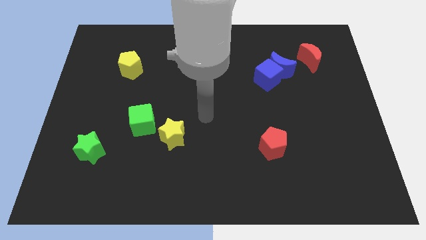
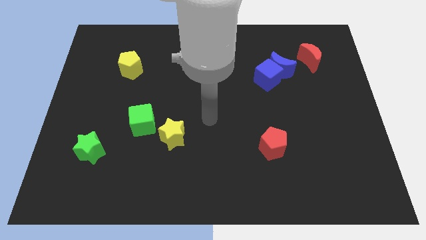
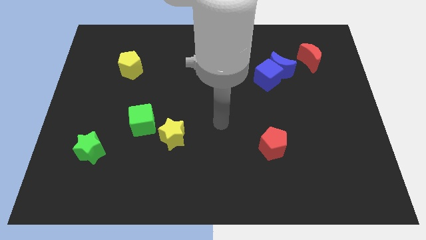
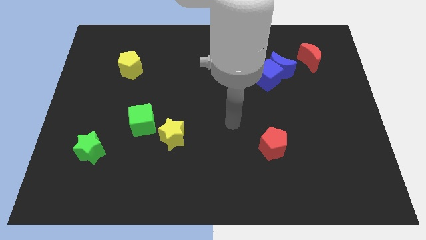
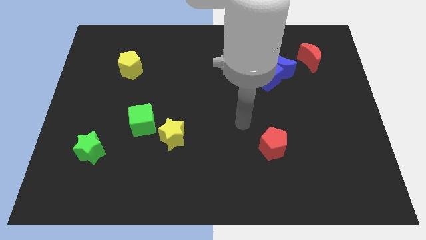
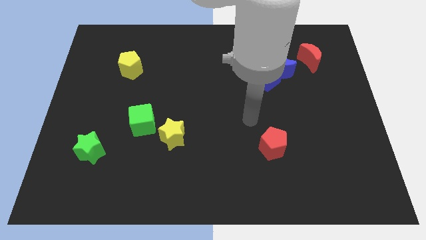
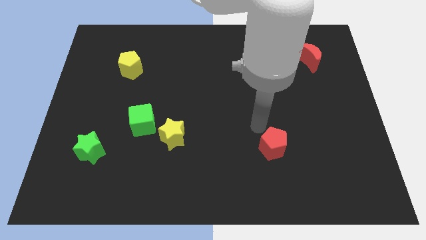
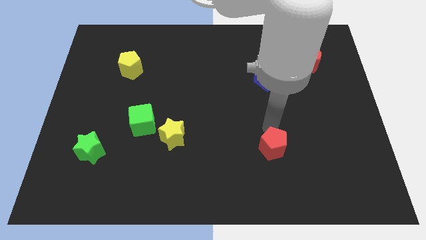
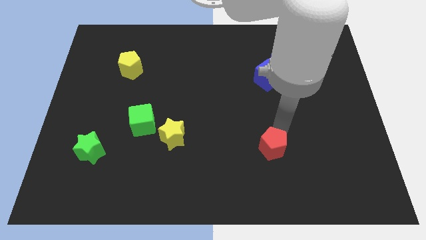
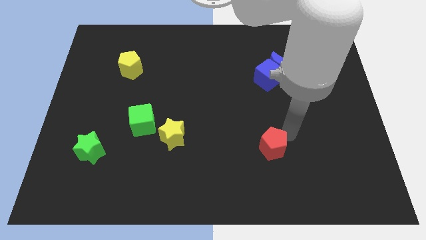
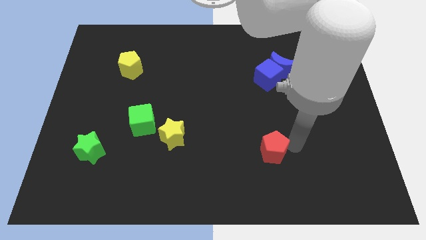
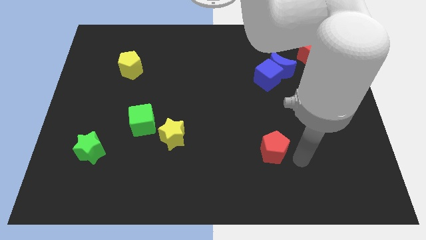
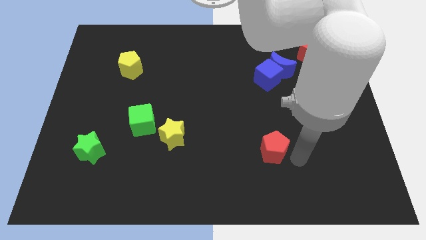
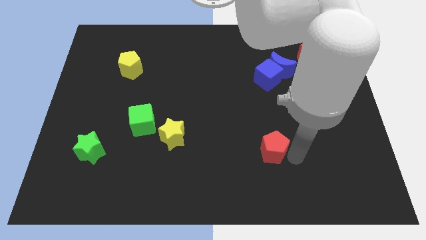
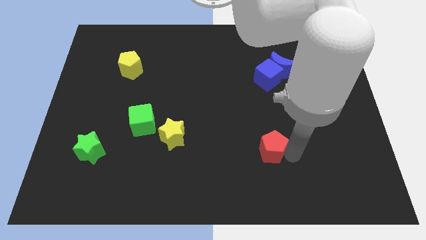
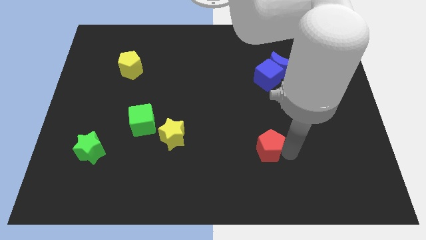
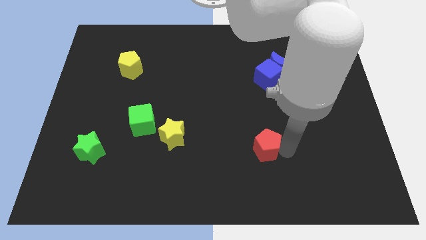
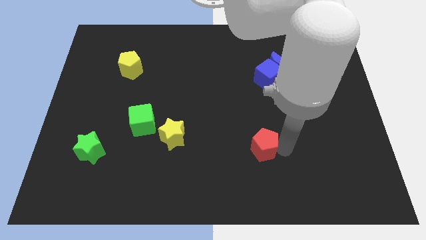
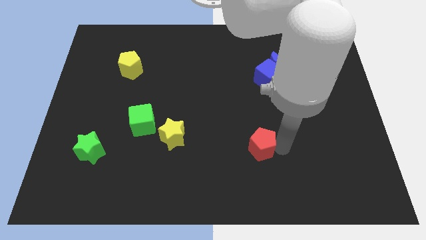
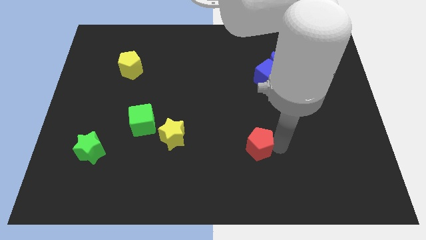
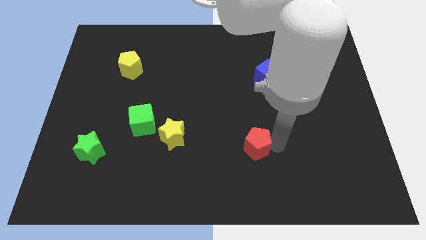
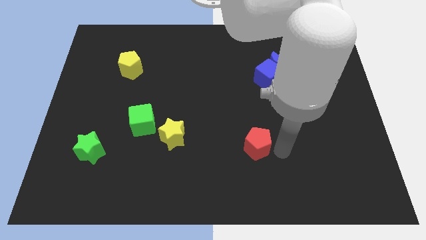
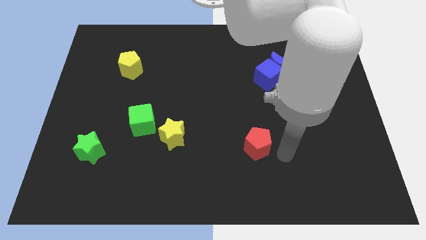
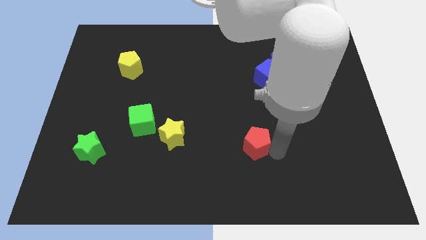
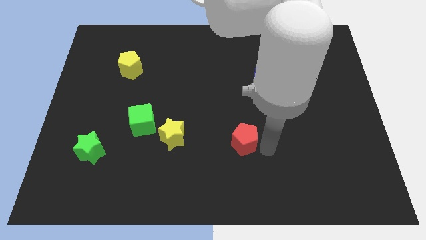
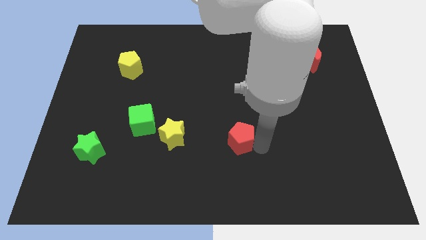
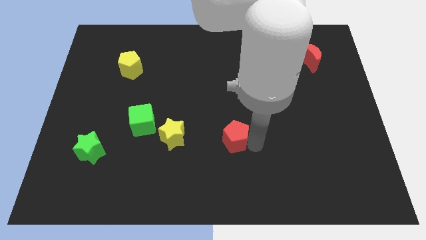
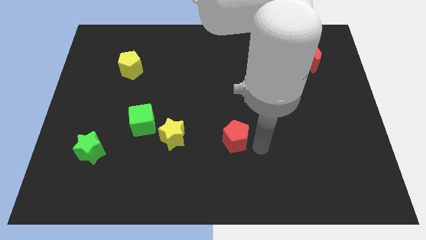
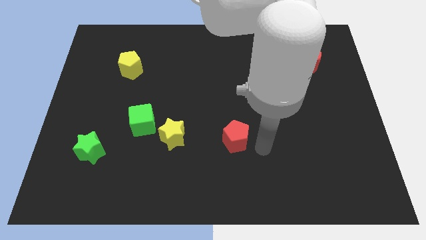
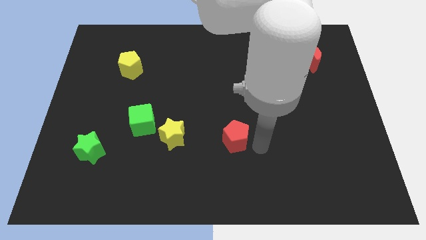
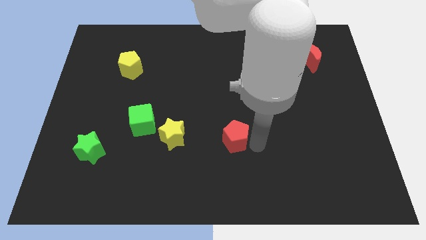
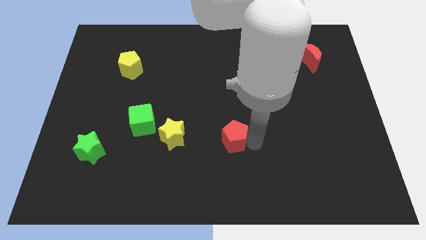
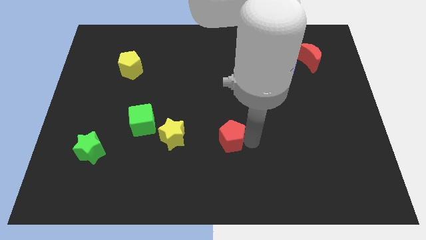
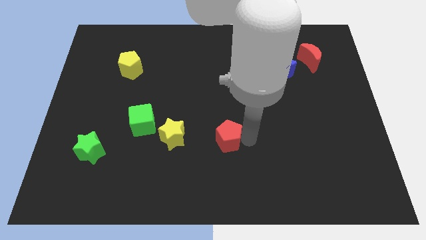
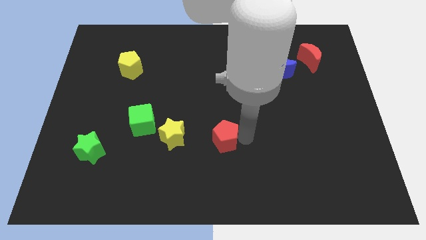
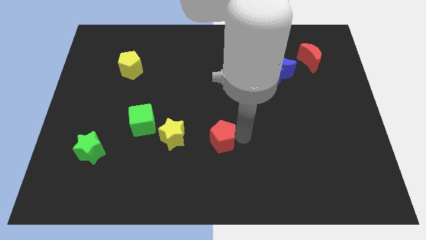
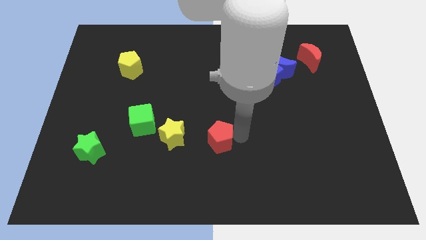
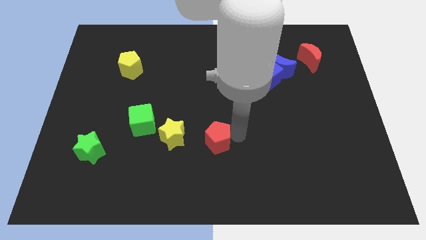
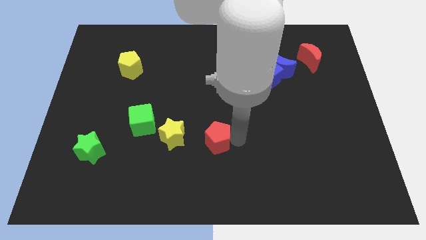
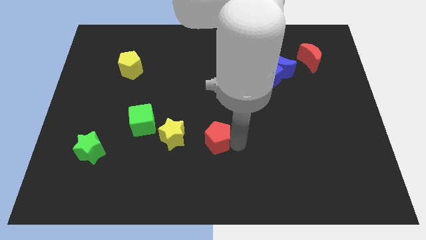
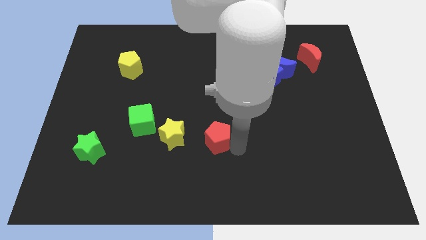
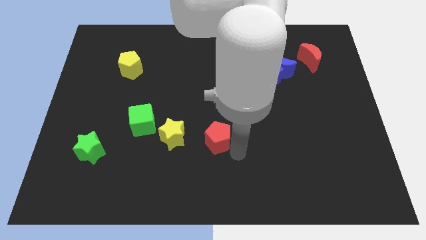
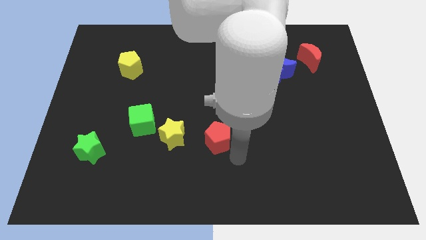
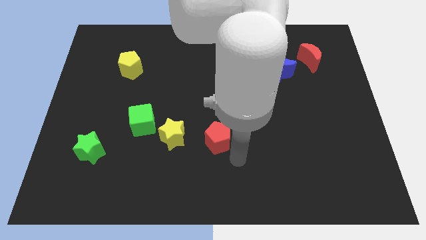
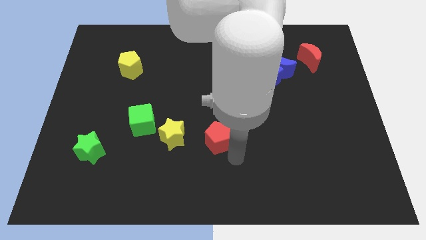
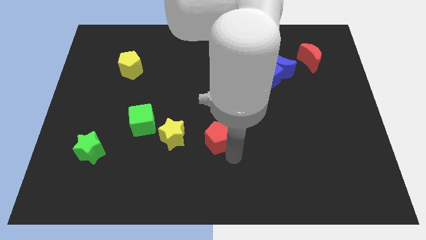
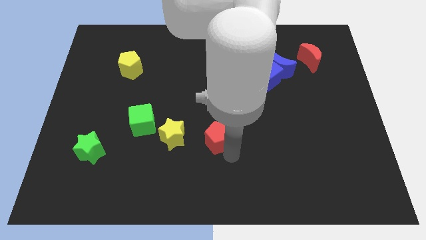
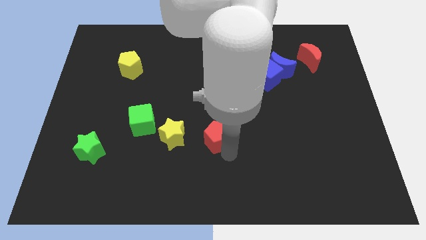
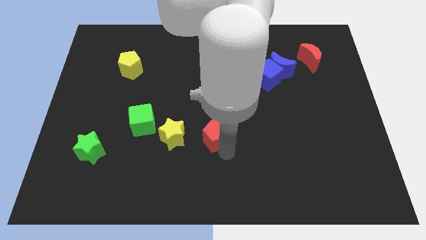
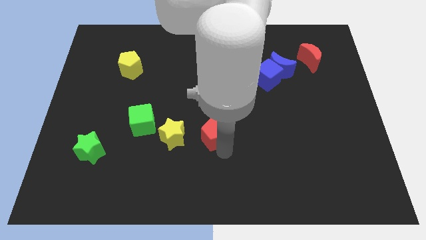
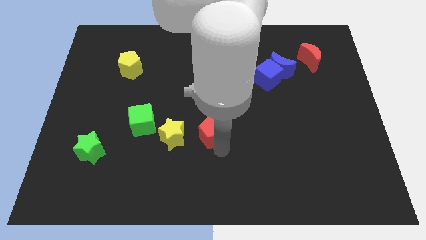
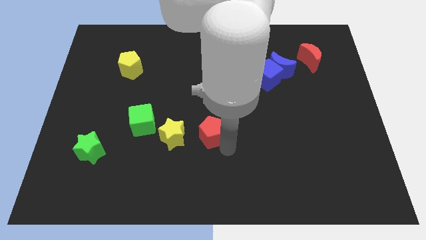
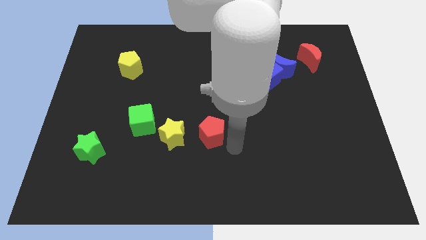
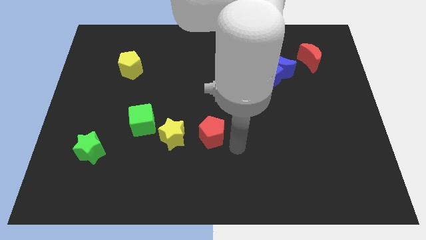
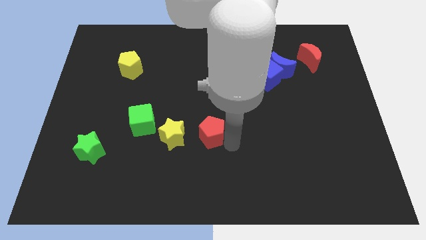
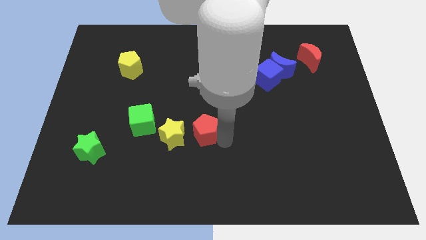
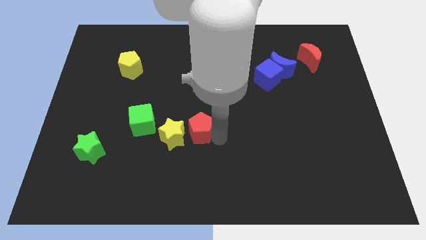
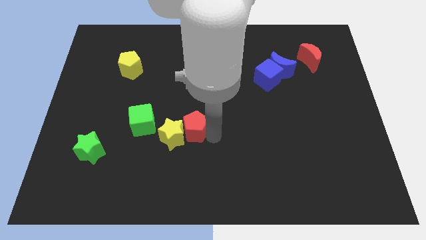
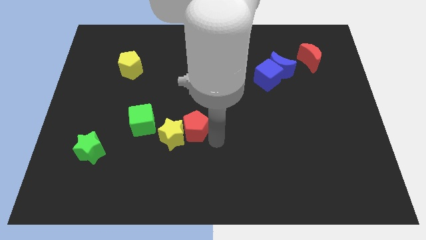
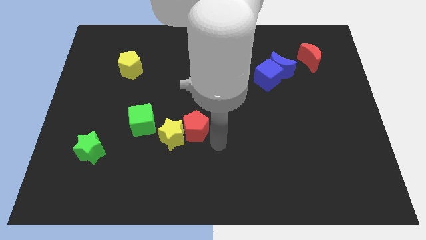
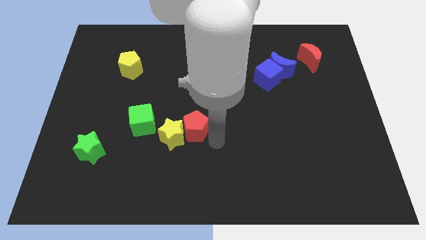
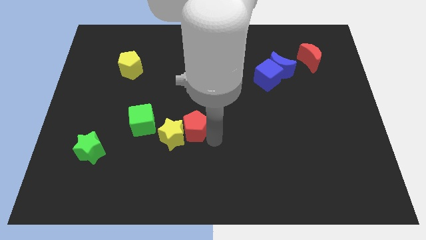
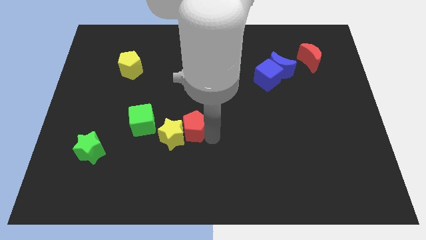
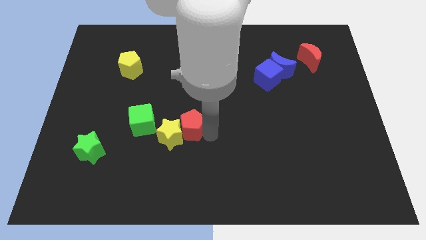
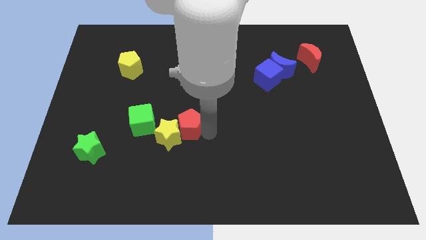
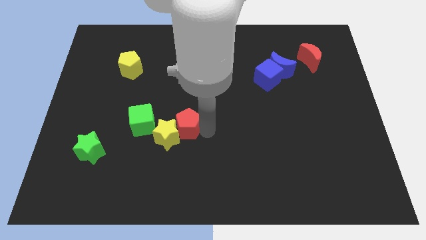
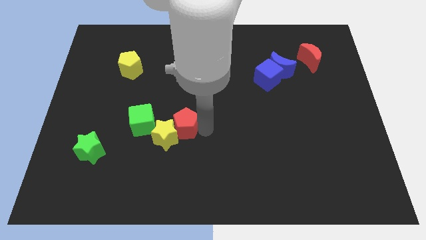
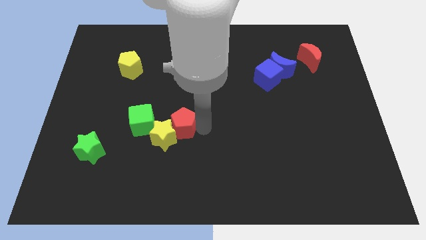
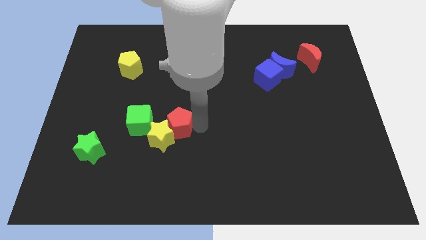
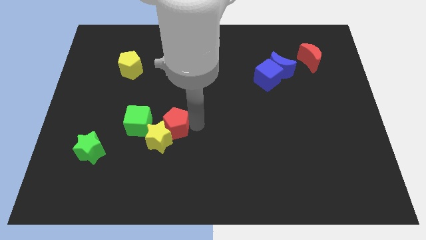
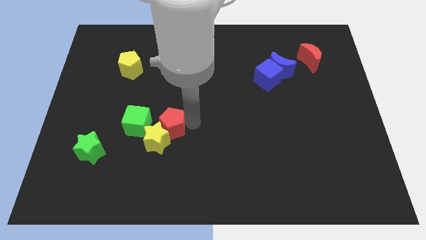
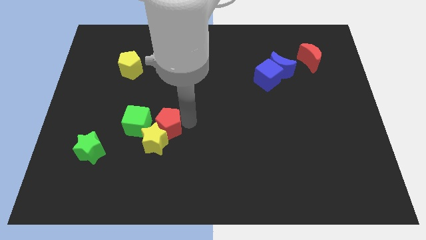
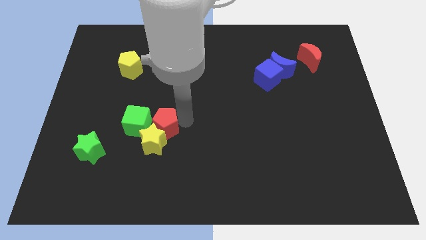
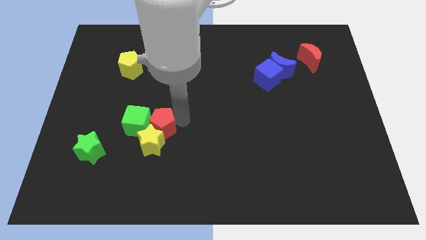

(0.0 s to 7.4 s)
move the red pentagon next to the green cube
